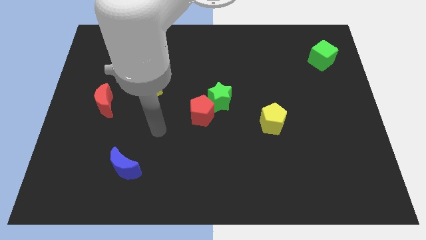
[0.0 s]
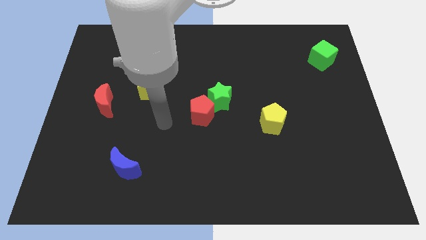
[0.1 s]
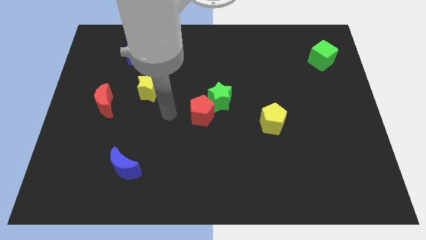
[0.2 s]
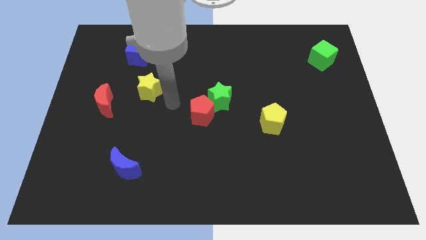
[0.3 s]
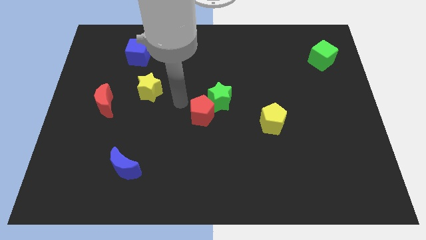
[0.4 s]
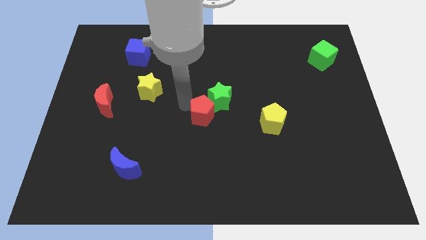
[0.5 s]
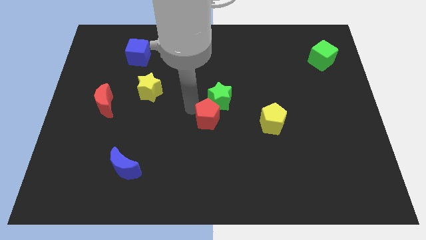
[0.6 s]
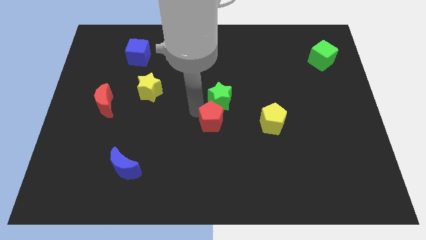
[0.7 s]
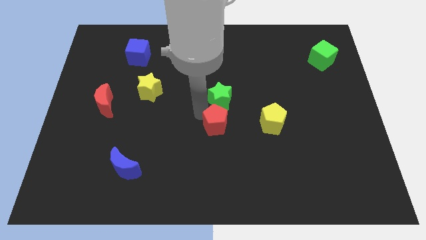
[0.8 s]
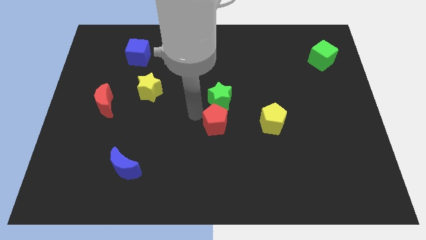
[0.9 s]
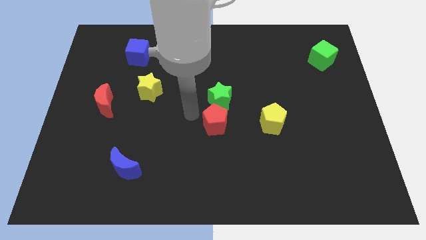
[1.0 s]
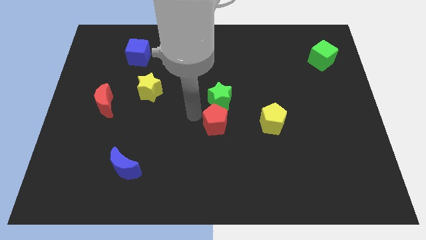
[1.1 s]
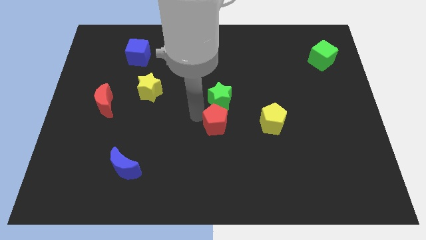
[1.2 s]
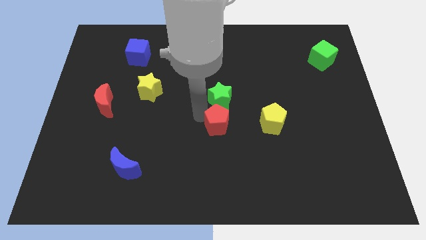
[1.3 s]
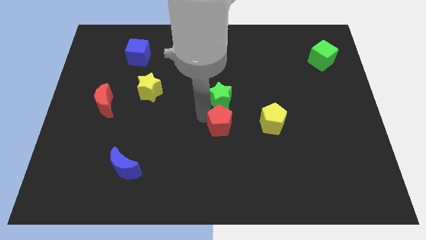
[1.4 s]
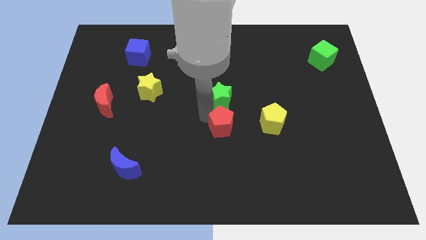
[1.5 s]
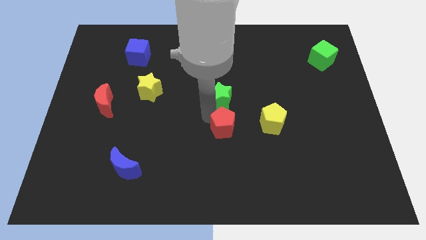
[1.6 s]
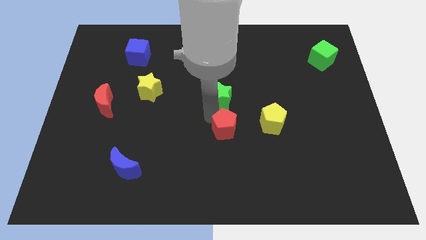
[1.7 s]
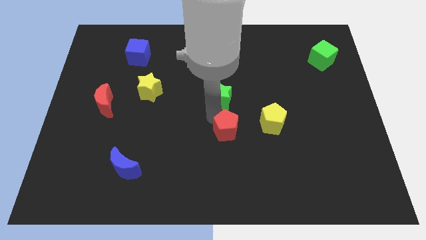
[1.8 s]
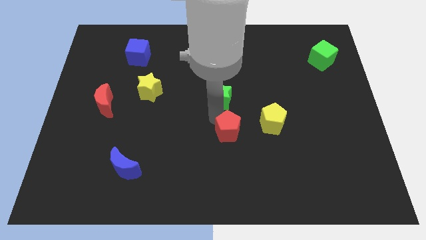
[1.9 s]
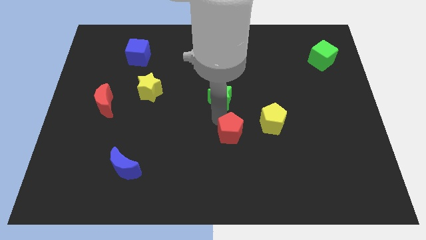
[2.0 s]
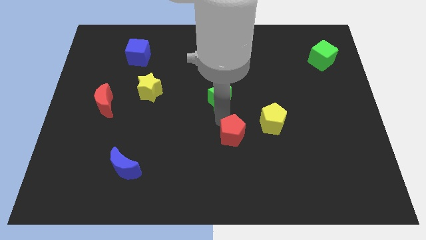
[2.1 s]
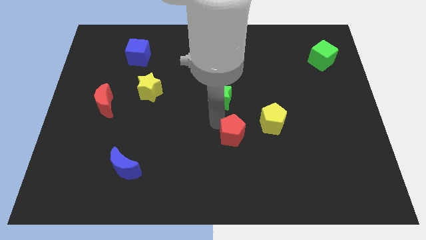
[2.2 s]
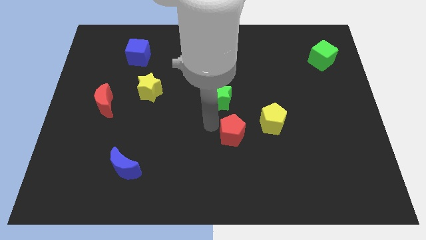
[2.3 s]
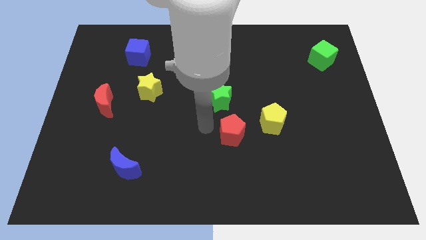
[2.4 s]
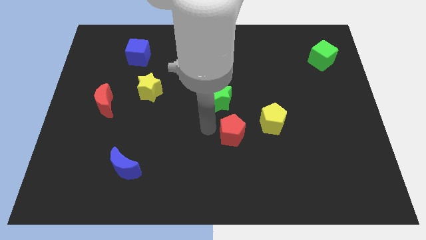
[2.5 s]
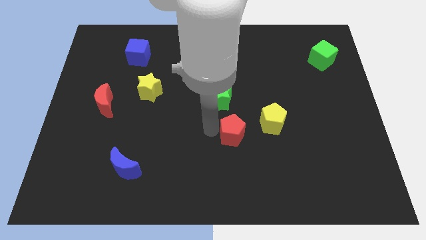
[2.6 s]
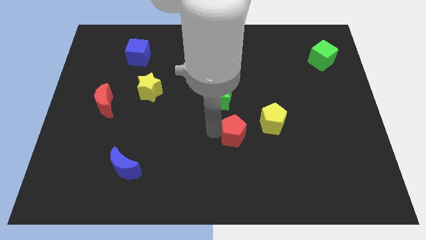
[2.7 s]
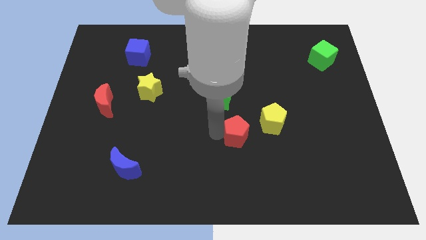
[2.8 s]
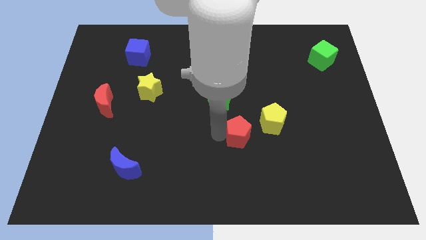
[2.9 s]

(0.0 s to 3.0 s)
push the red pentagon to the right slightly

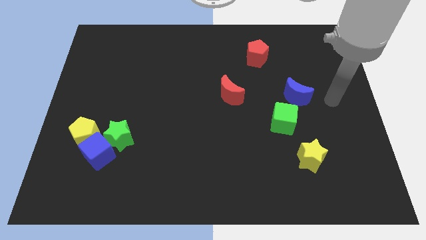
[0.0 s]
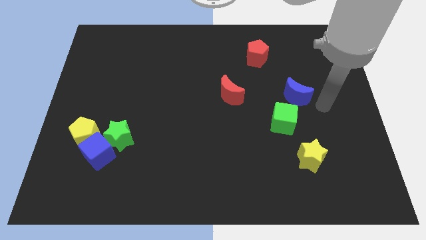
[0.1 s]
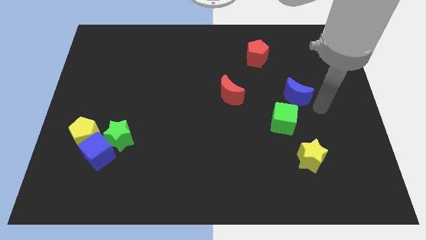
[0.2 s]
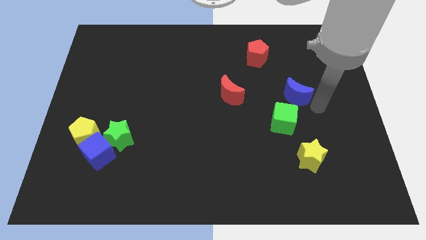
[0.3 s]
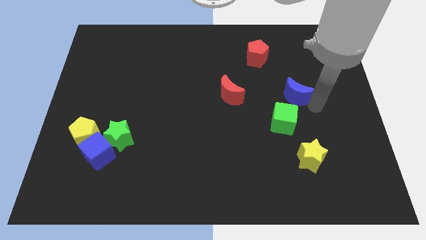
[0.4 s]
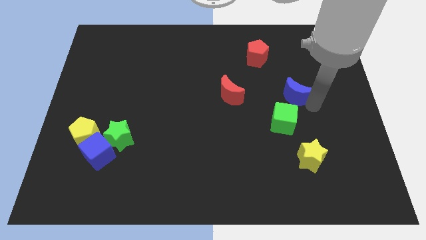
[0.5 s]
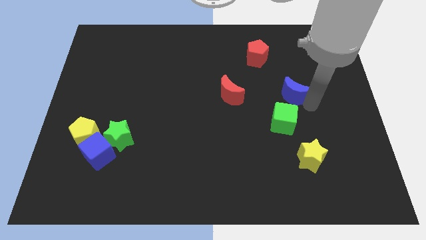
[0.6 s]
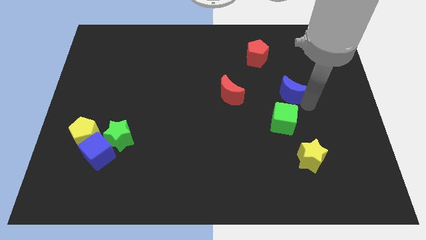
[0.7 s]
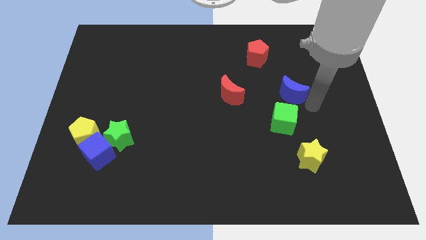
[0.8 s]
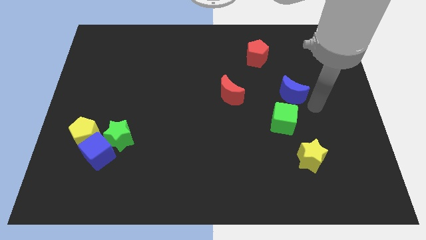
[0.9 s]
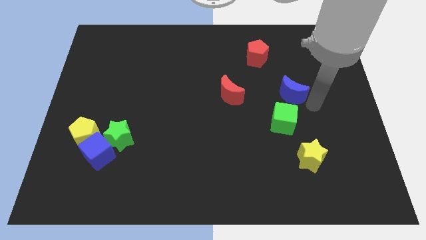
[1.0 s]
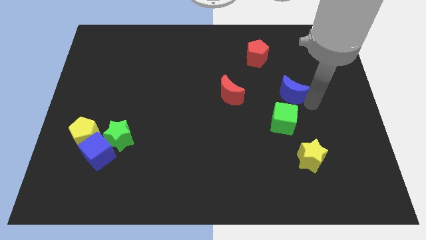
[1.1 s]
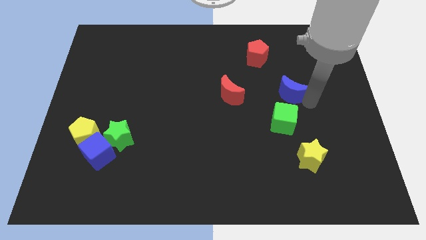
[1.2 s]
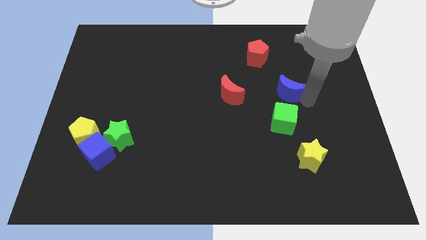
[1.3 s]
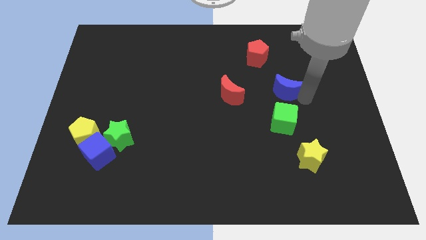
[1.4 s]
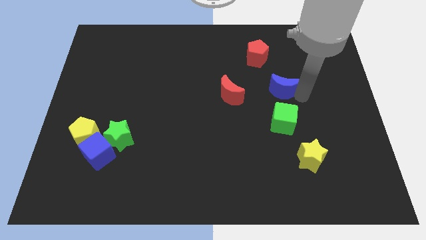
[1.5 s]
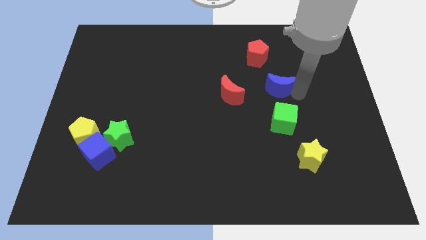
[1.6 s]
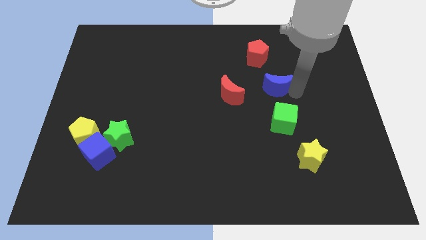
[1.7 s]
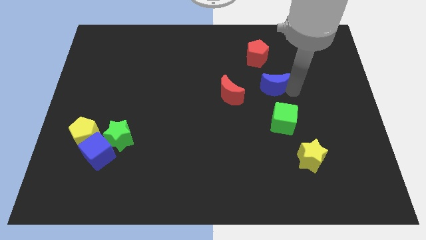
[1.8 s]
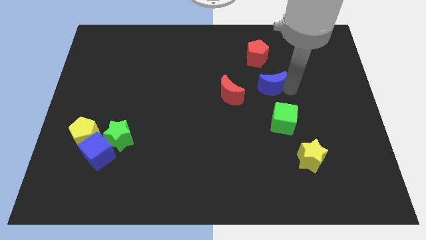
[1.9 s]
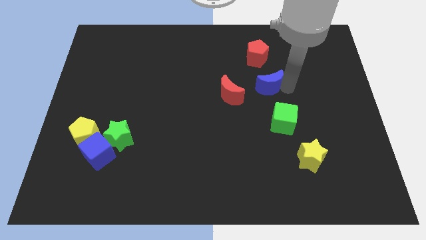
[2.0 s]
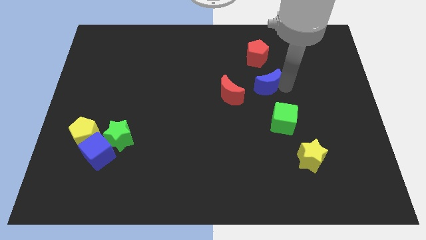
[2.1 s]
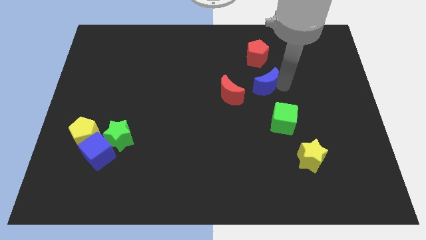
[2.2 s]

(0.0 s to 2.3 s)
slide the blue moon diagonally upwards and to the left a little

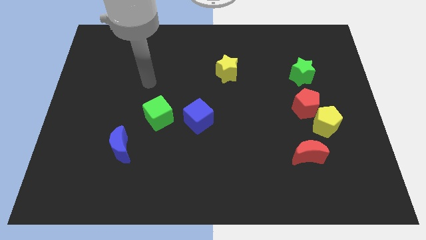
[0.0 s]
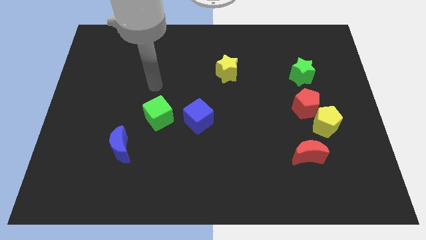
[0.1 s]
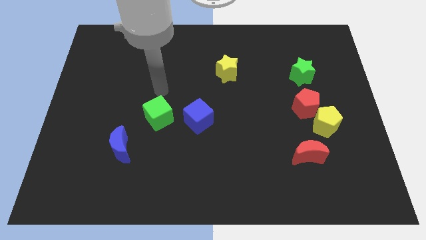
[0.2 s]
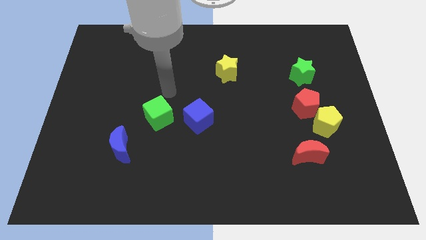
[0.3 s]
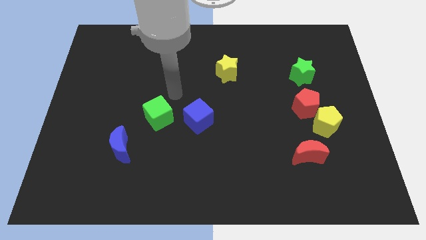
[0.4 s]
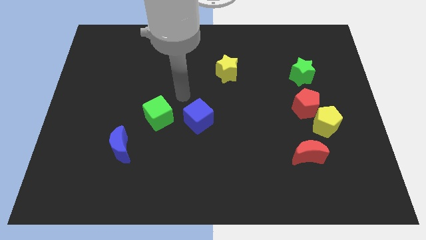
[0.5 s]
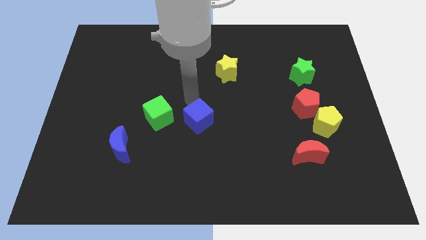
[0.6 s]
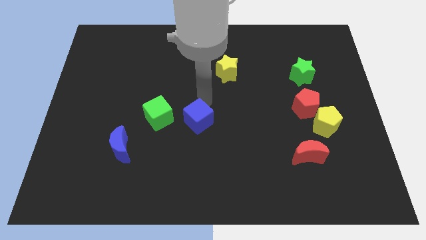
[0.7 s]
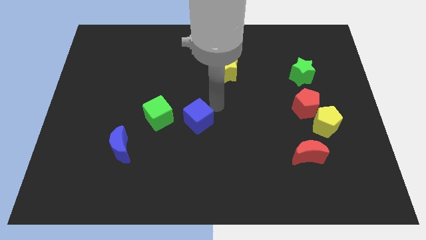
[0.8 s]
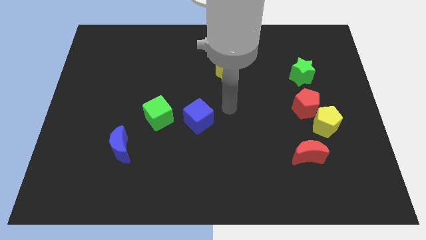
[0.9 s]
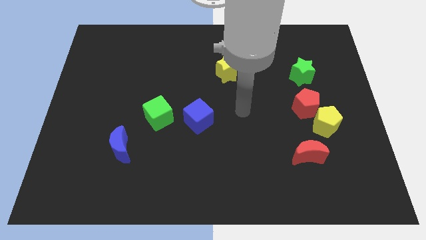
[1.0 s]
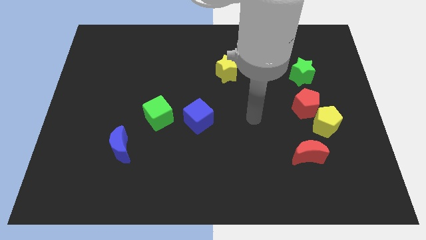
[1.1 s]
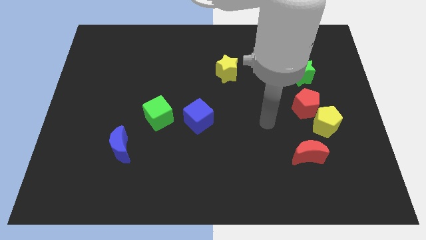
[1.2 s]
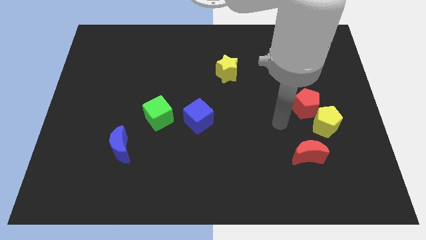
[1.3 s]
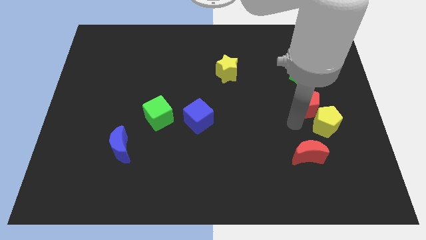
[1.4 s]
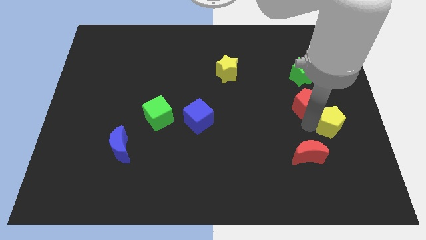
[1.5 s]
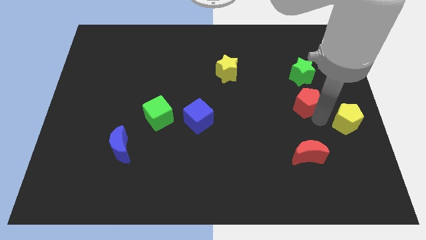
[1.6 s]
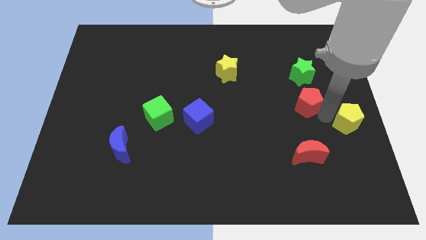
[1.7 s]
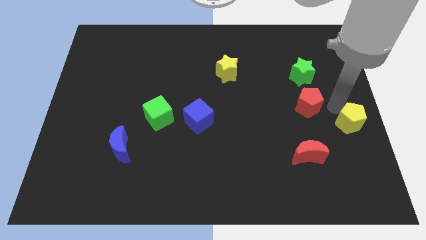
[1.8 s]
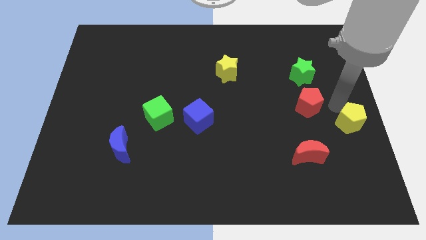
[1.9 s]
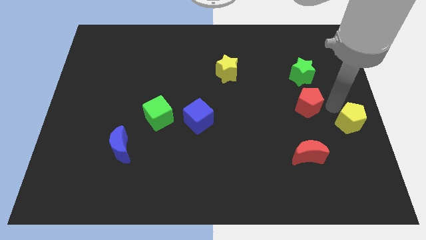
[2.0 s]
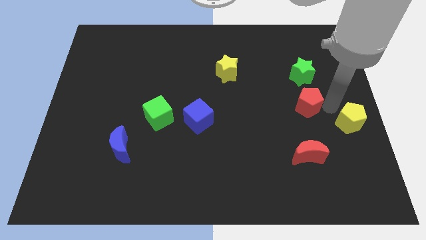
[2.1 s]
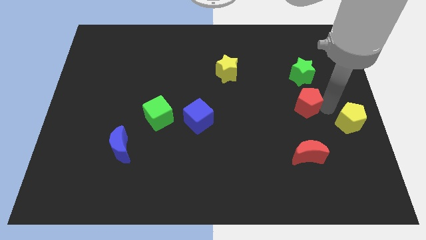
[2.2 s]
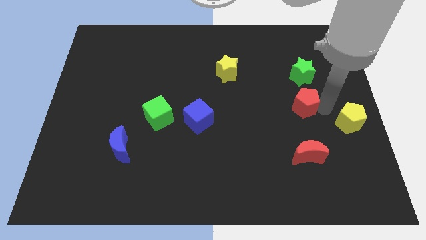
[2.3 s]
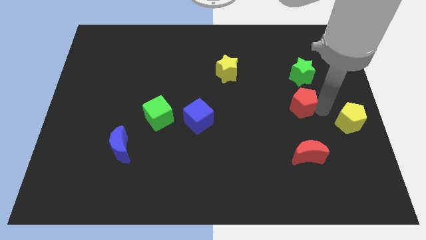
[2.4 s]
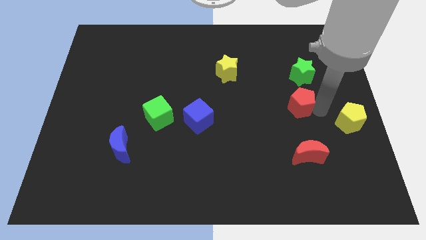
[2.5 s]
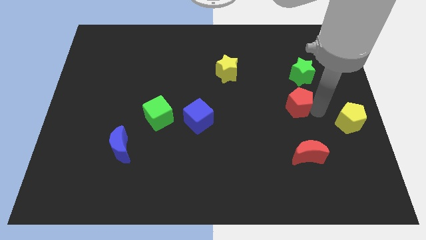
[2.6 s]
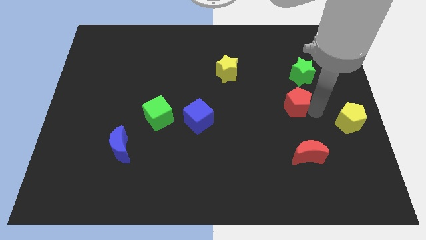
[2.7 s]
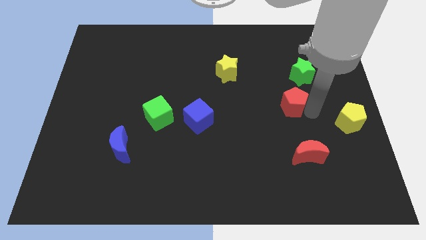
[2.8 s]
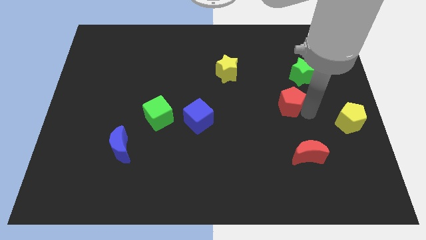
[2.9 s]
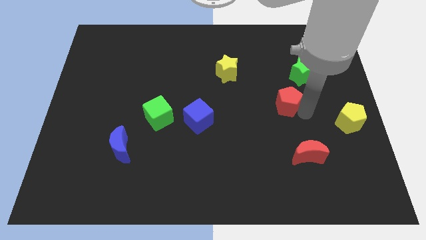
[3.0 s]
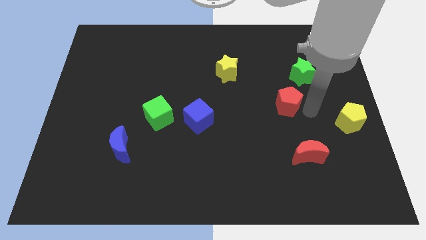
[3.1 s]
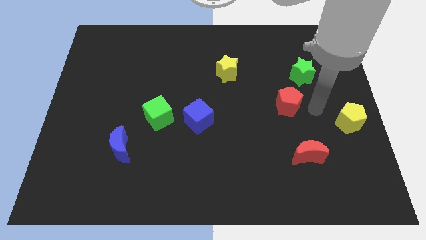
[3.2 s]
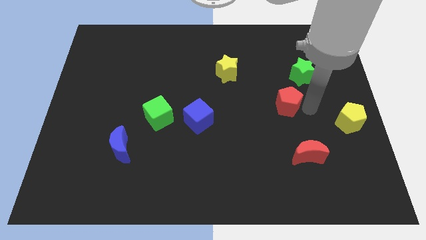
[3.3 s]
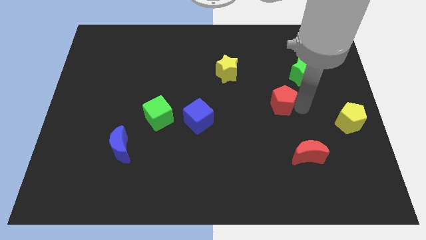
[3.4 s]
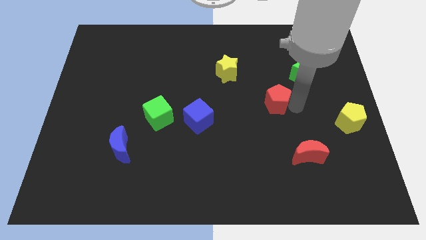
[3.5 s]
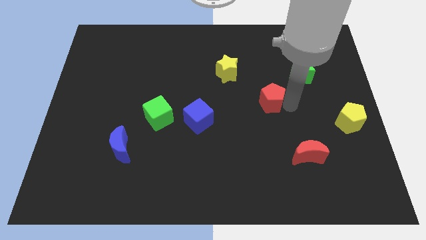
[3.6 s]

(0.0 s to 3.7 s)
push the red pentagon a little left
